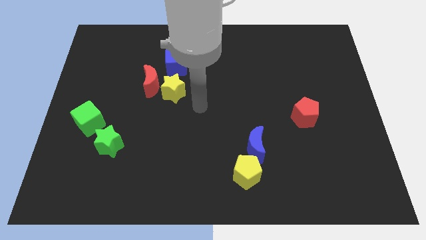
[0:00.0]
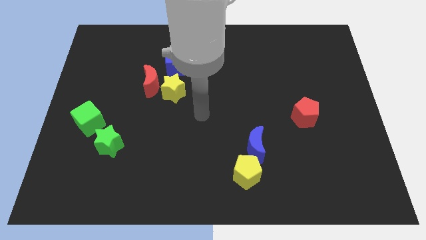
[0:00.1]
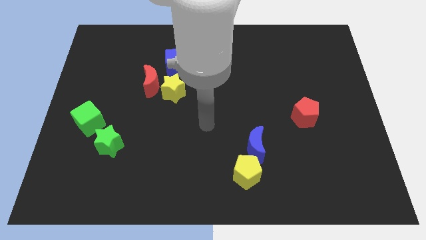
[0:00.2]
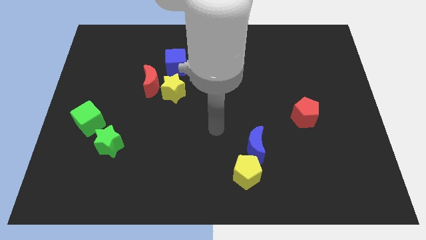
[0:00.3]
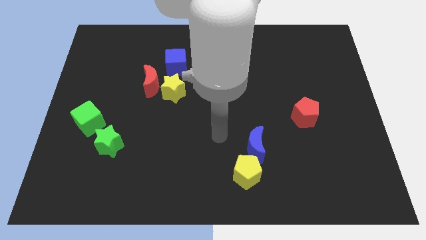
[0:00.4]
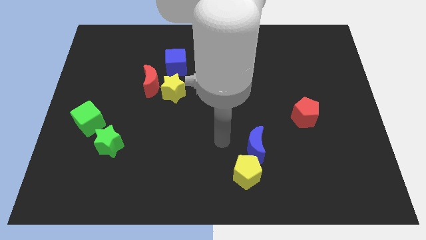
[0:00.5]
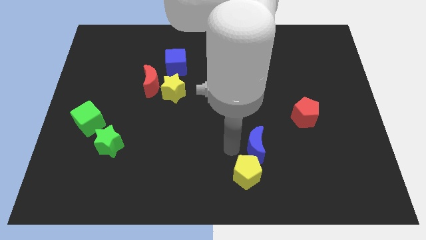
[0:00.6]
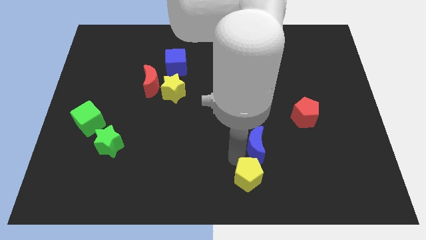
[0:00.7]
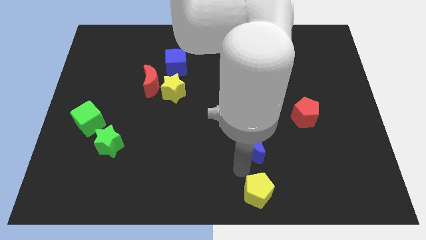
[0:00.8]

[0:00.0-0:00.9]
move the blue moon away from the yellow pentagon

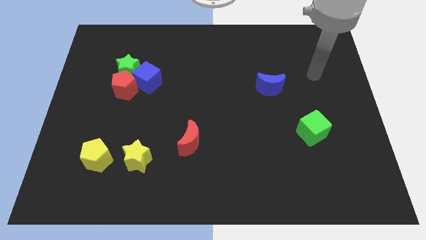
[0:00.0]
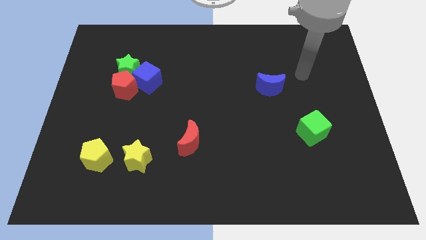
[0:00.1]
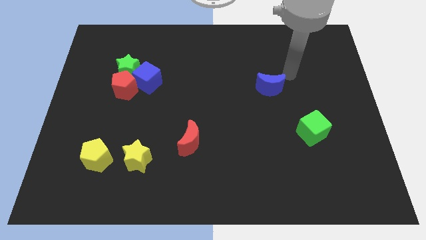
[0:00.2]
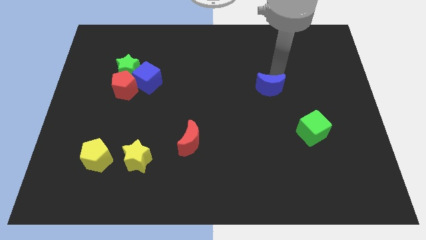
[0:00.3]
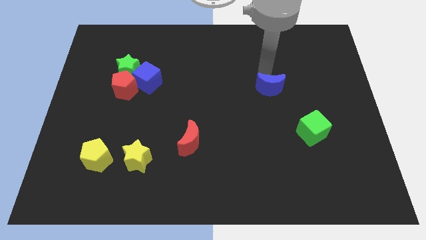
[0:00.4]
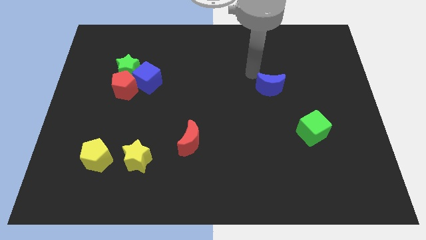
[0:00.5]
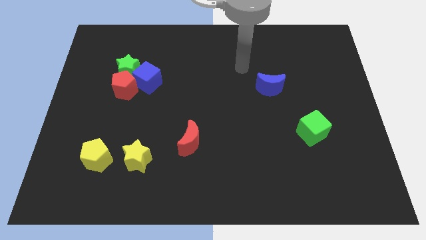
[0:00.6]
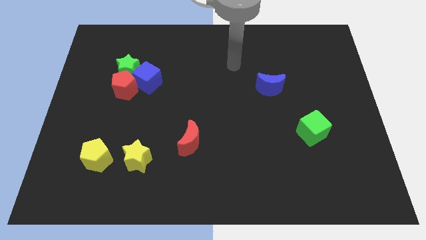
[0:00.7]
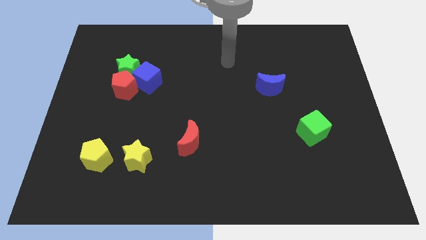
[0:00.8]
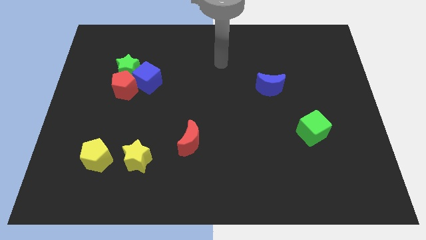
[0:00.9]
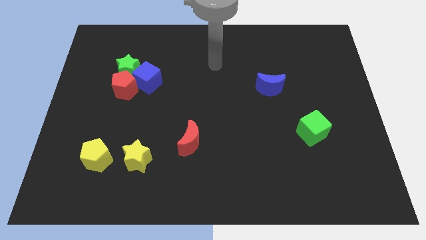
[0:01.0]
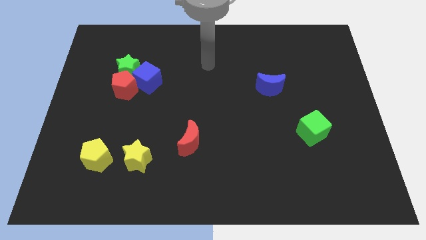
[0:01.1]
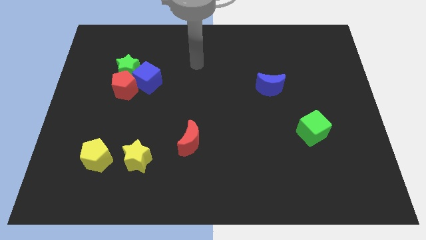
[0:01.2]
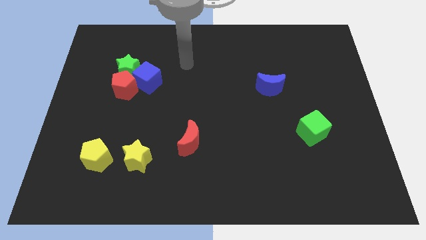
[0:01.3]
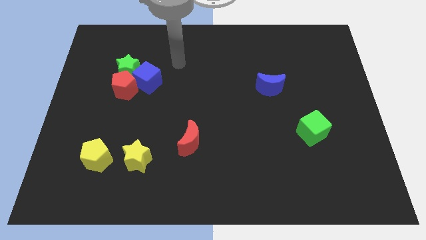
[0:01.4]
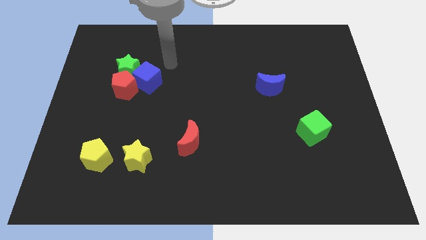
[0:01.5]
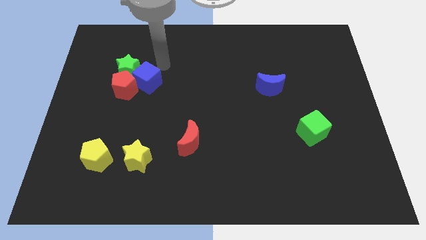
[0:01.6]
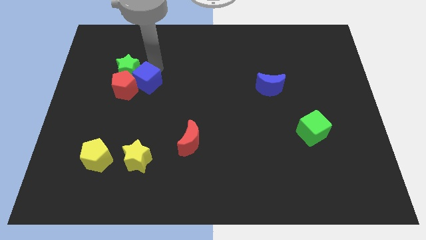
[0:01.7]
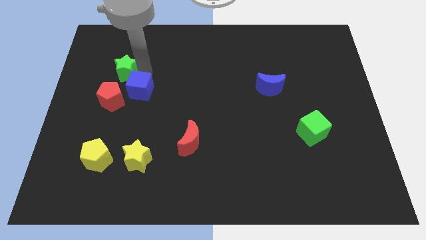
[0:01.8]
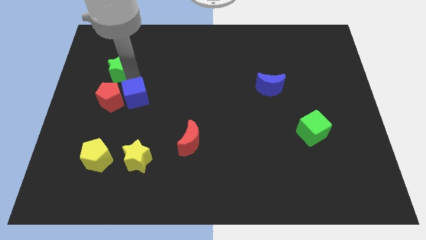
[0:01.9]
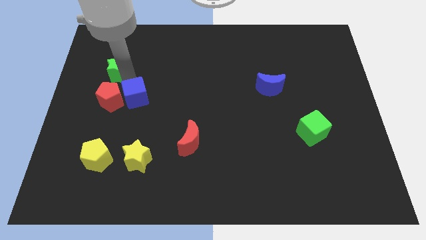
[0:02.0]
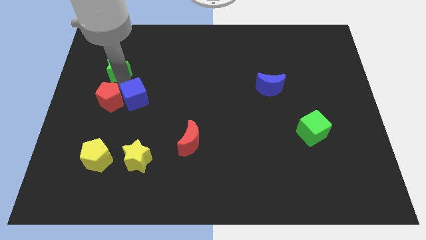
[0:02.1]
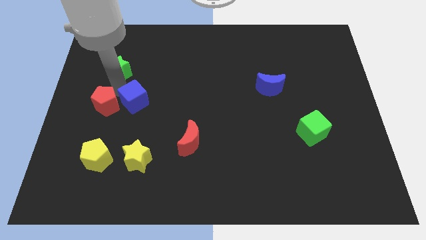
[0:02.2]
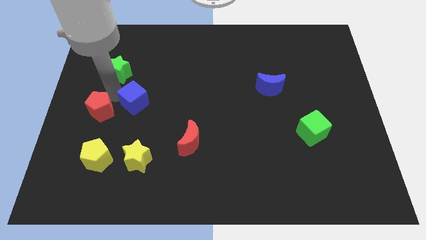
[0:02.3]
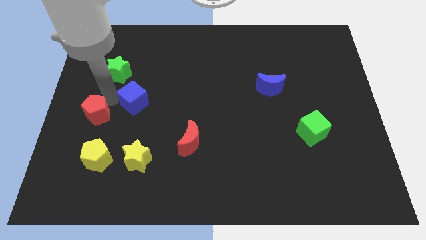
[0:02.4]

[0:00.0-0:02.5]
separate the red pentagon from the green star and blue cube

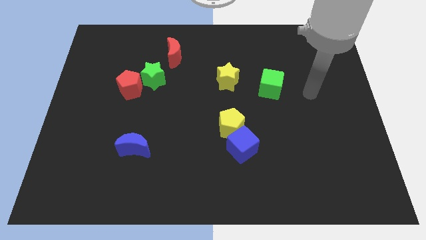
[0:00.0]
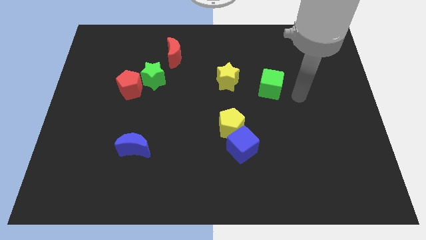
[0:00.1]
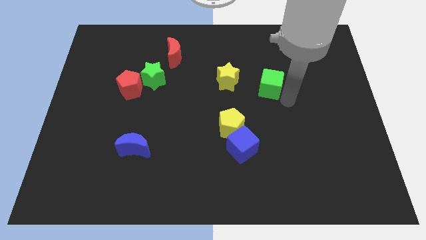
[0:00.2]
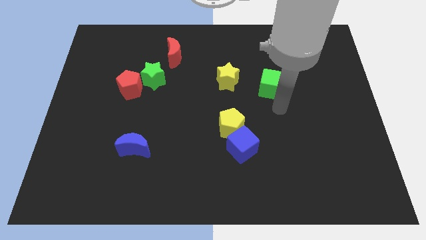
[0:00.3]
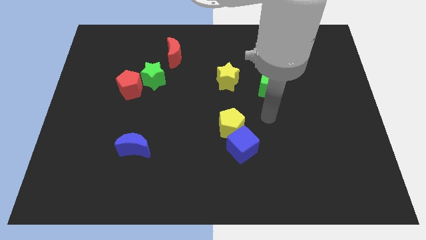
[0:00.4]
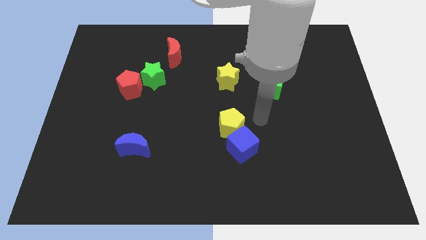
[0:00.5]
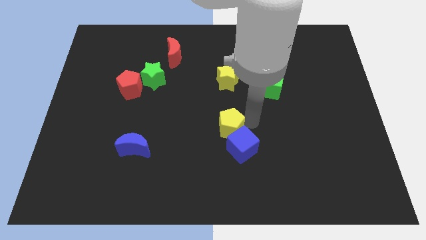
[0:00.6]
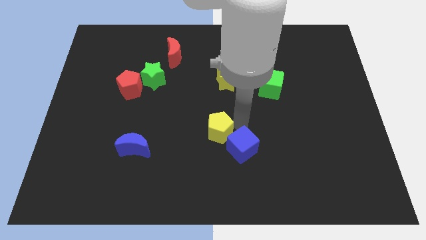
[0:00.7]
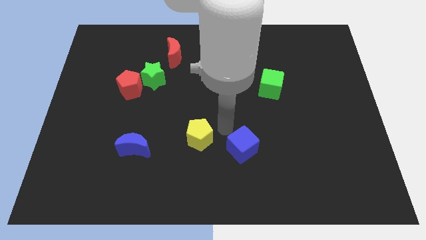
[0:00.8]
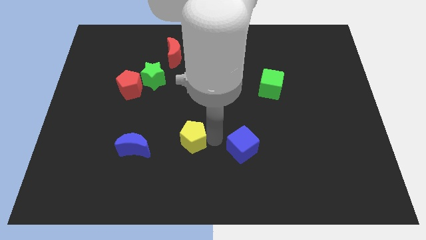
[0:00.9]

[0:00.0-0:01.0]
pull the blue cube apart from the yellow pentagon

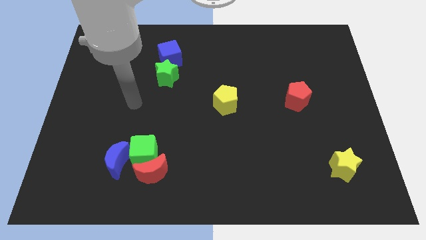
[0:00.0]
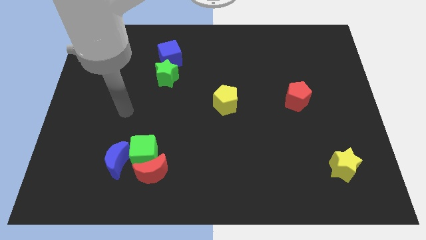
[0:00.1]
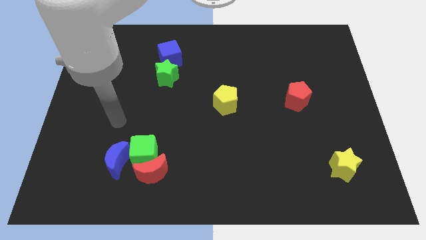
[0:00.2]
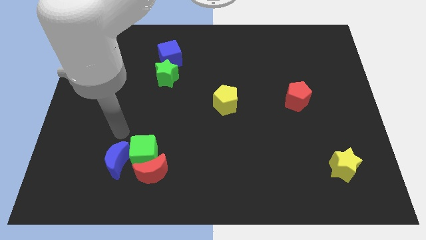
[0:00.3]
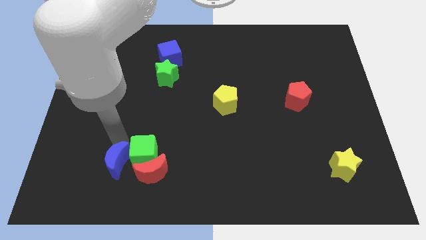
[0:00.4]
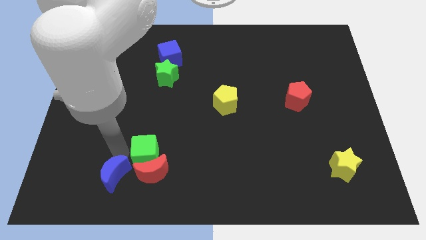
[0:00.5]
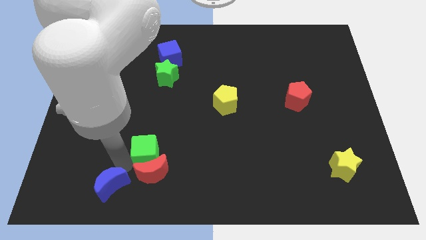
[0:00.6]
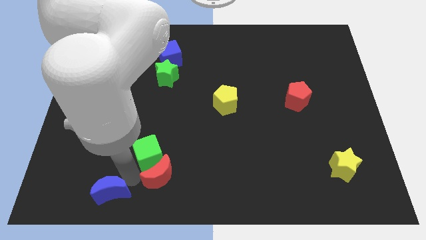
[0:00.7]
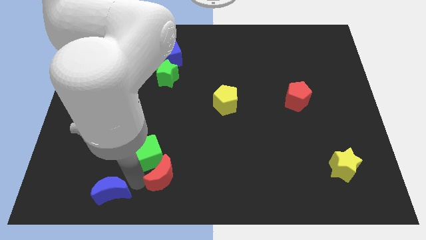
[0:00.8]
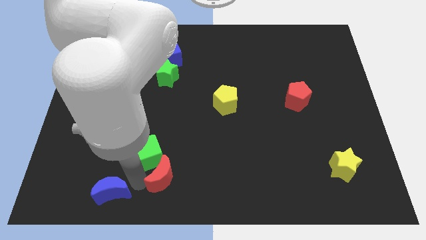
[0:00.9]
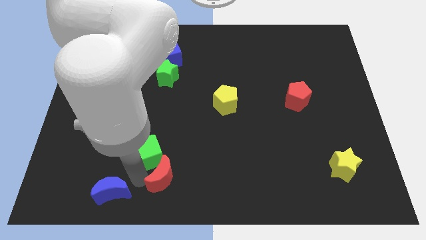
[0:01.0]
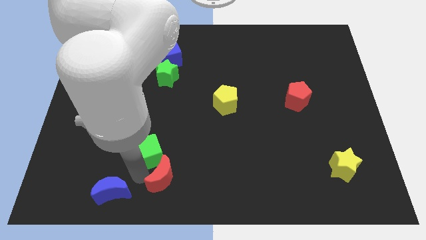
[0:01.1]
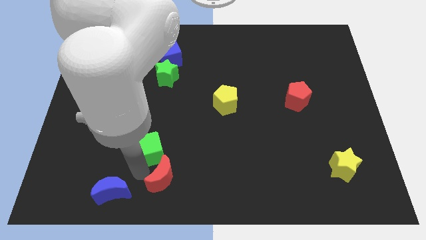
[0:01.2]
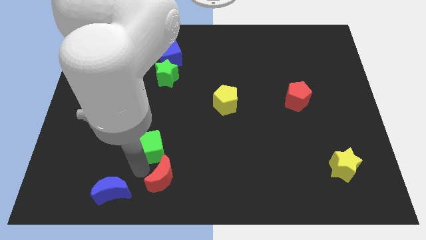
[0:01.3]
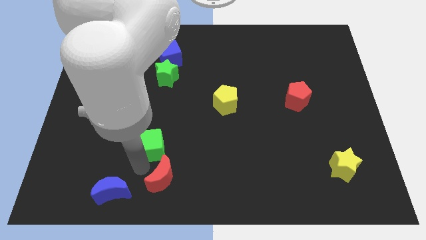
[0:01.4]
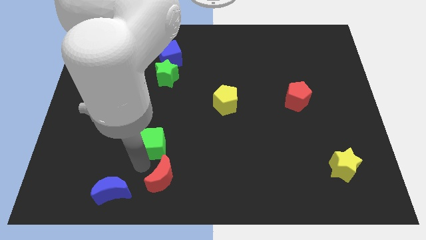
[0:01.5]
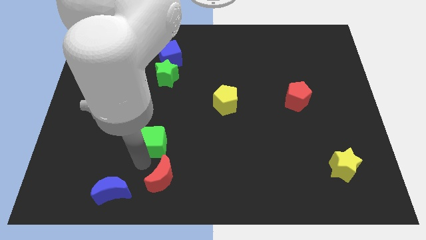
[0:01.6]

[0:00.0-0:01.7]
pull the green cube apart from the red moon and blue moon

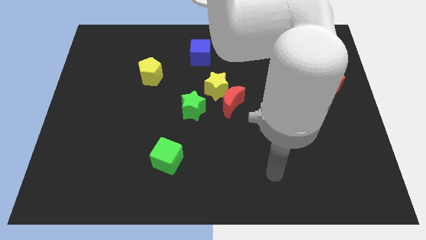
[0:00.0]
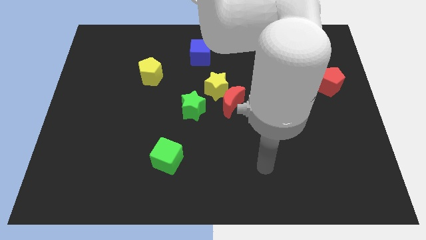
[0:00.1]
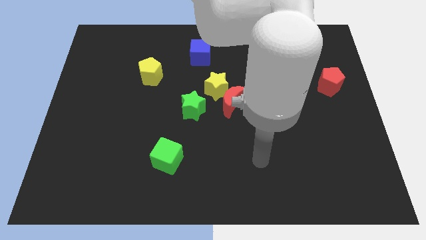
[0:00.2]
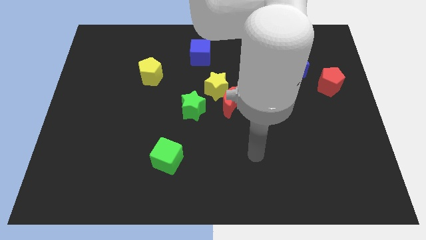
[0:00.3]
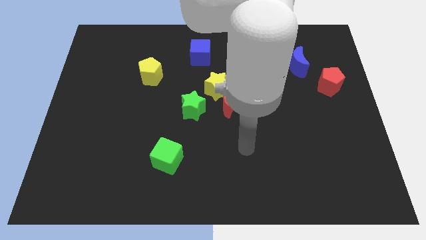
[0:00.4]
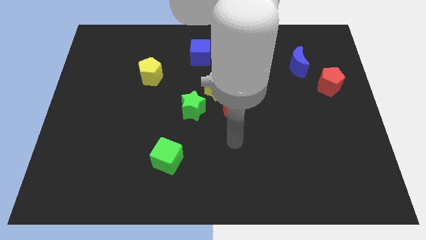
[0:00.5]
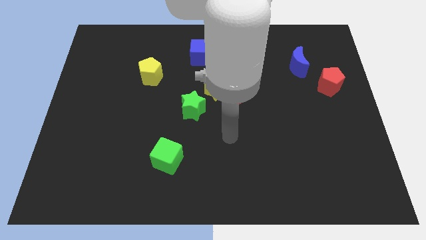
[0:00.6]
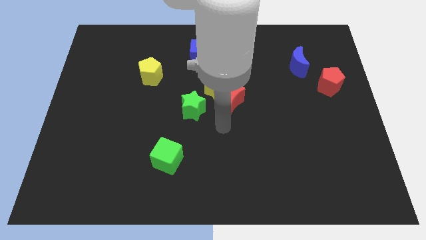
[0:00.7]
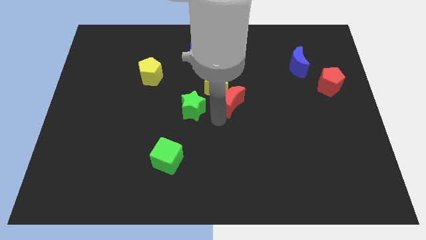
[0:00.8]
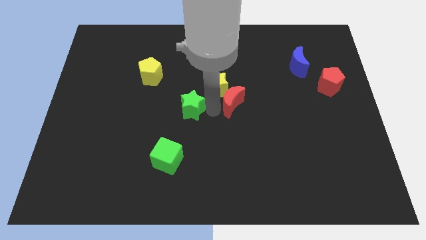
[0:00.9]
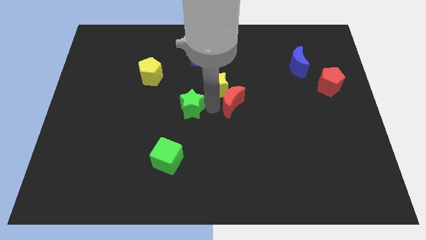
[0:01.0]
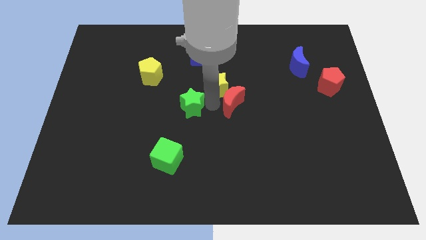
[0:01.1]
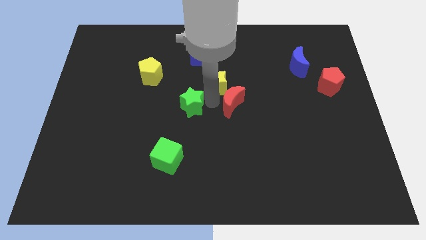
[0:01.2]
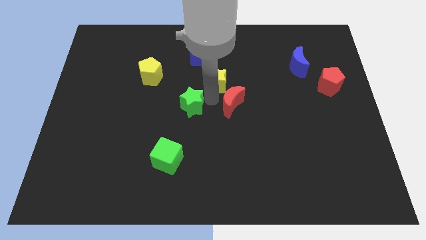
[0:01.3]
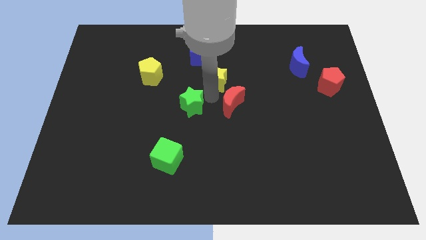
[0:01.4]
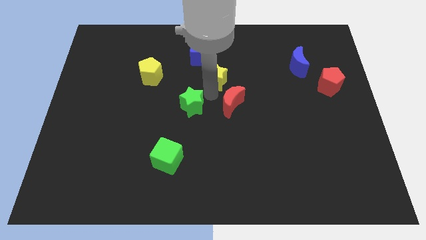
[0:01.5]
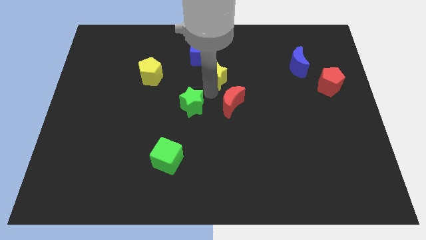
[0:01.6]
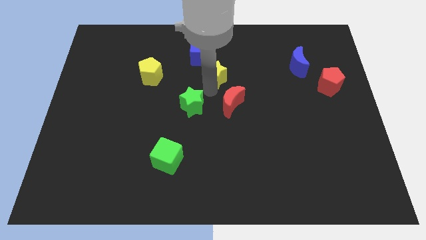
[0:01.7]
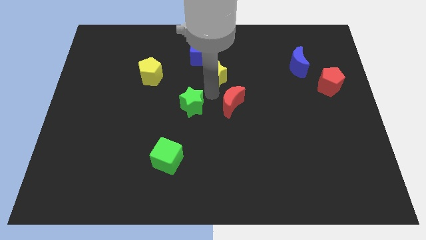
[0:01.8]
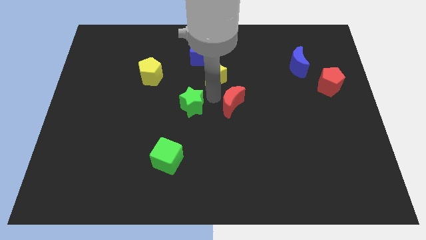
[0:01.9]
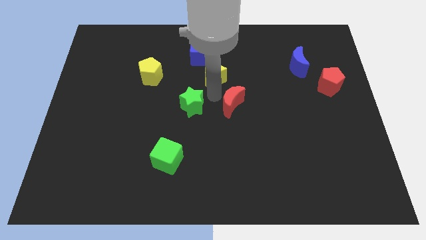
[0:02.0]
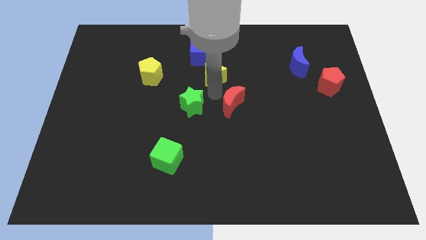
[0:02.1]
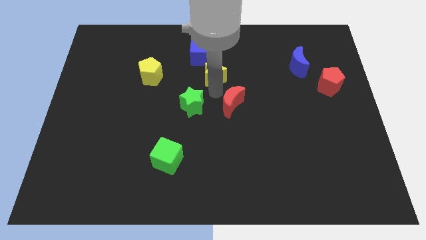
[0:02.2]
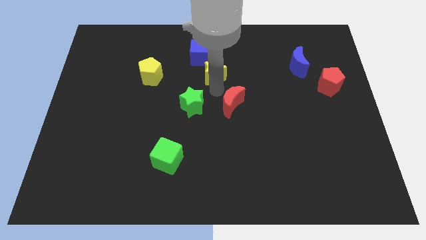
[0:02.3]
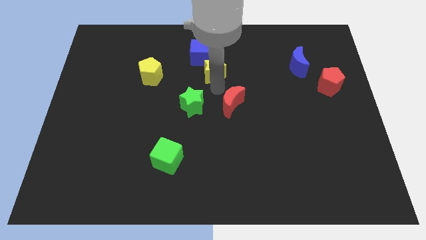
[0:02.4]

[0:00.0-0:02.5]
pull the yellow star apart from the red moon and green star

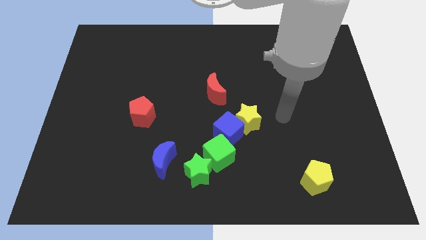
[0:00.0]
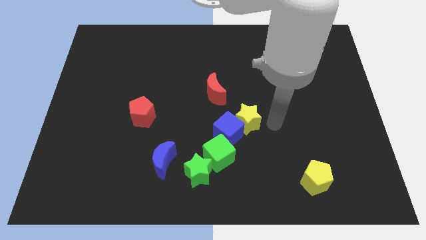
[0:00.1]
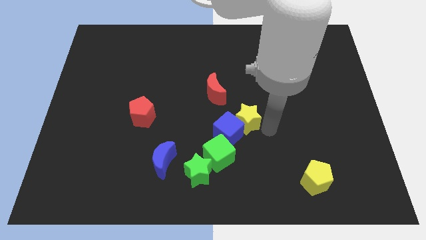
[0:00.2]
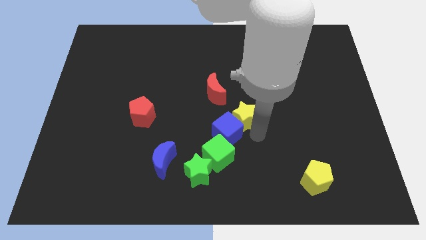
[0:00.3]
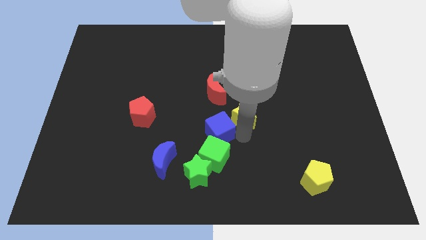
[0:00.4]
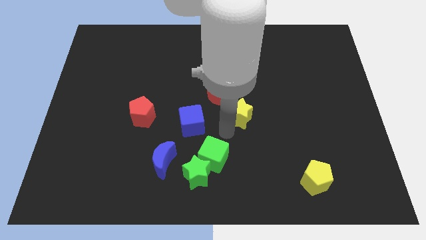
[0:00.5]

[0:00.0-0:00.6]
separate the yellow star from the blue cube

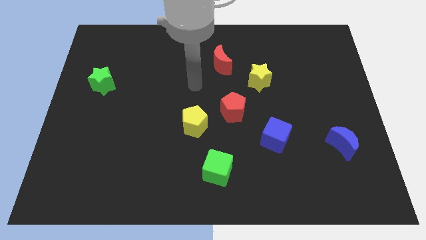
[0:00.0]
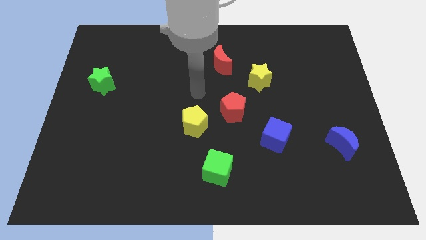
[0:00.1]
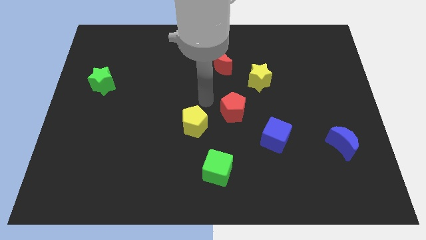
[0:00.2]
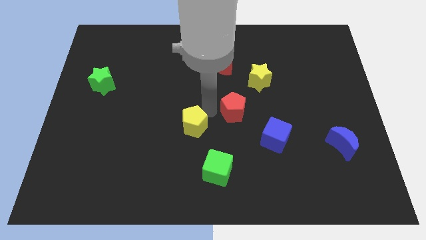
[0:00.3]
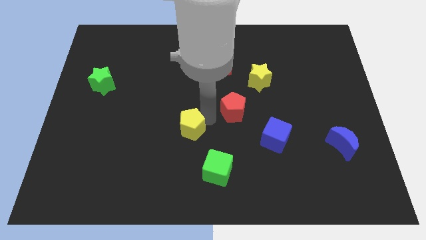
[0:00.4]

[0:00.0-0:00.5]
move the red pentagon away from the yellow pentagon
